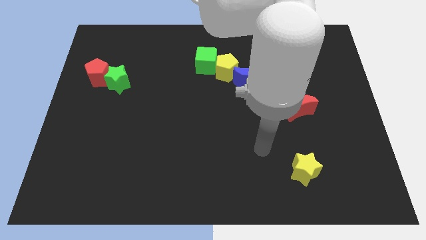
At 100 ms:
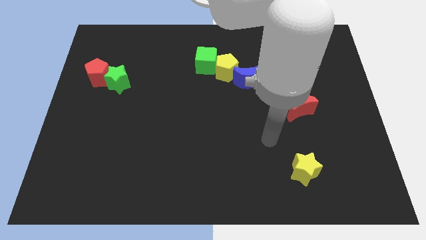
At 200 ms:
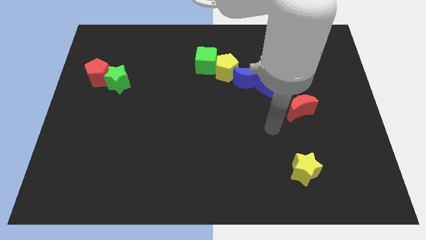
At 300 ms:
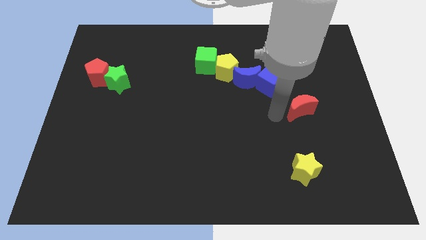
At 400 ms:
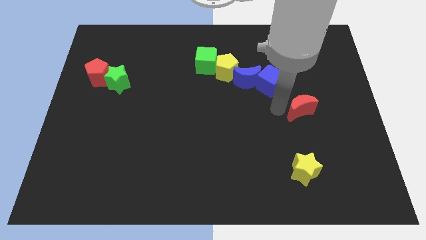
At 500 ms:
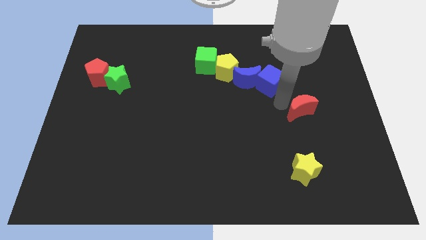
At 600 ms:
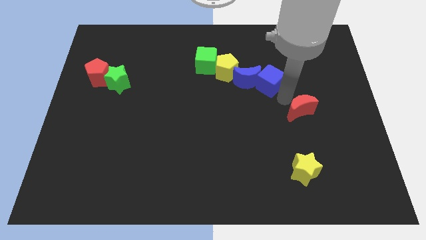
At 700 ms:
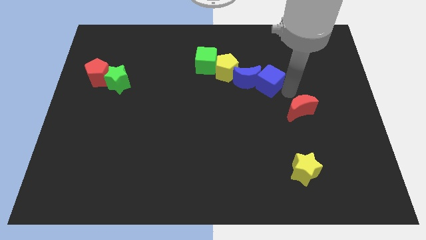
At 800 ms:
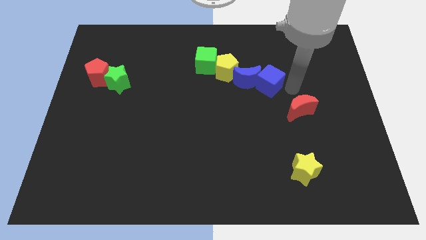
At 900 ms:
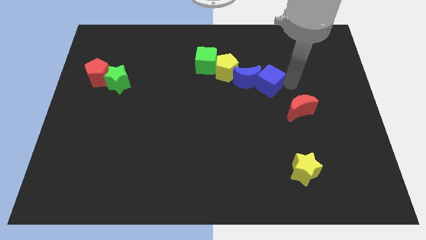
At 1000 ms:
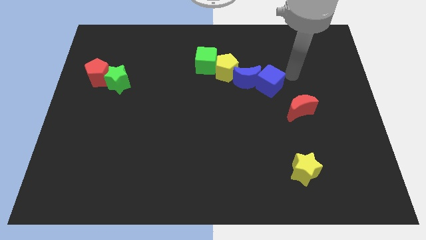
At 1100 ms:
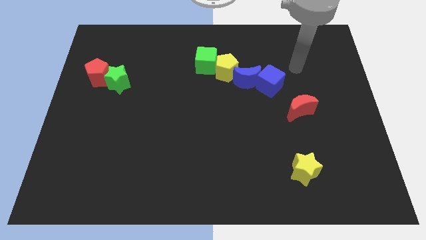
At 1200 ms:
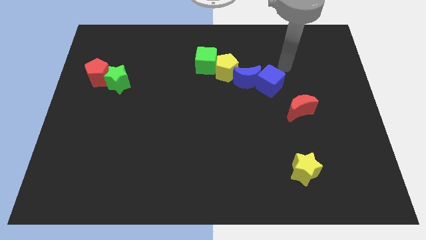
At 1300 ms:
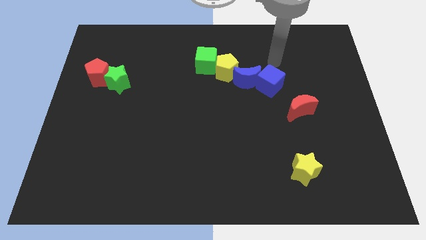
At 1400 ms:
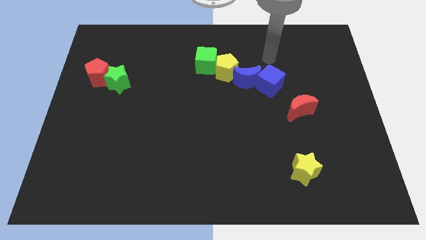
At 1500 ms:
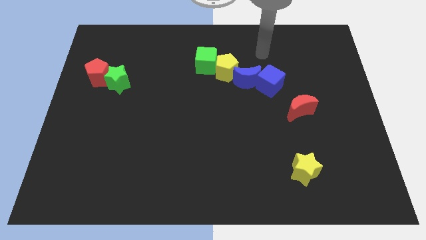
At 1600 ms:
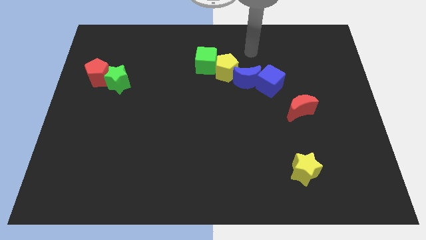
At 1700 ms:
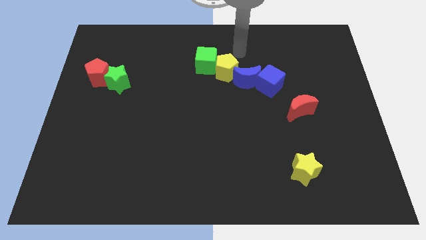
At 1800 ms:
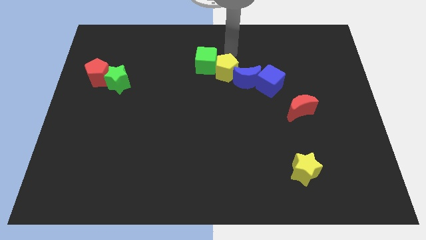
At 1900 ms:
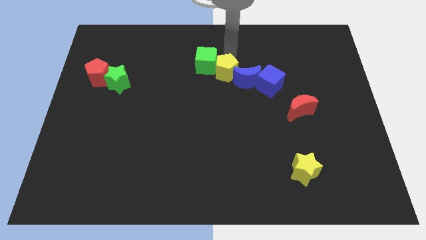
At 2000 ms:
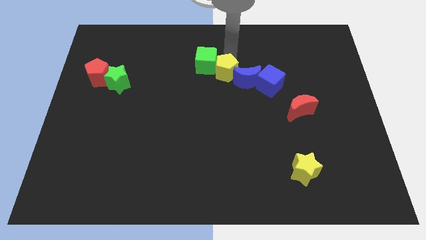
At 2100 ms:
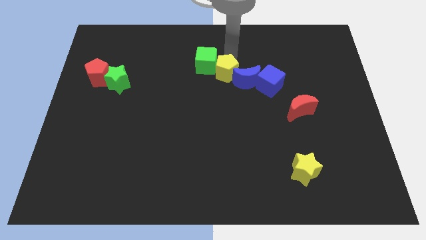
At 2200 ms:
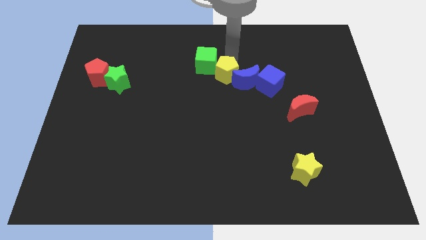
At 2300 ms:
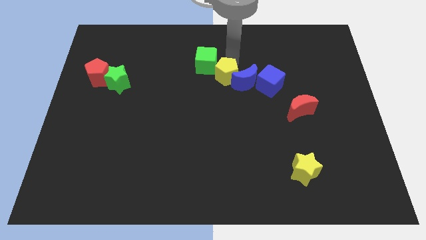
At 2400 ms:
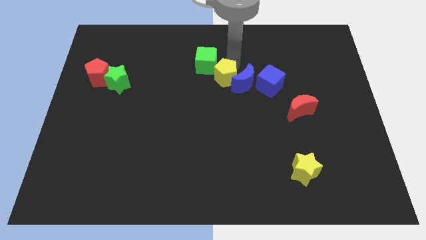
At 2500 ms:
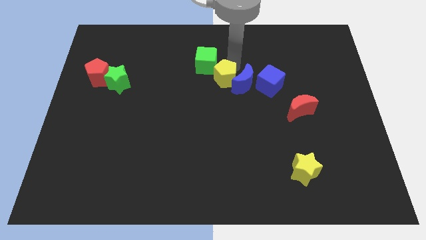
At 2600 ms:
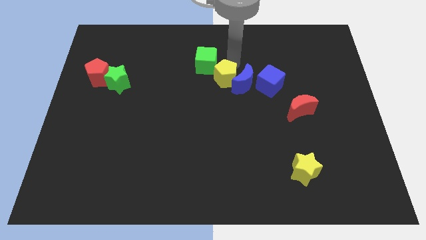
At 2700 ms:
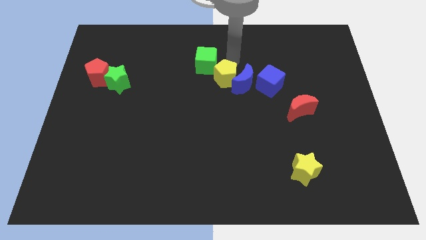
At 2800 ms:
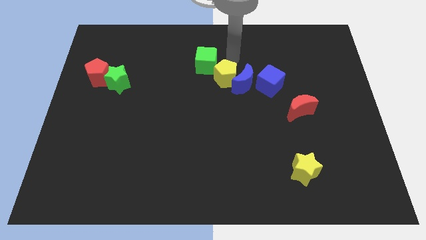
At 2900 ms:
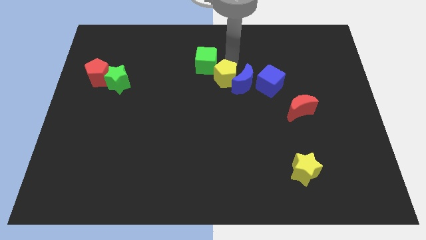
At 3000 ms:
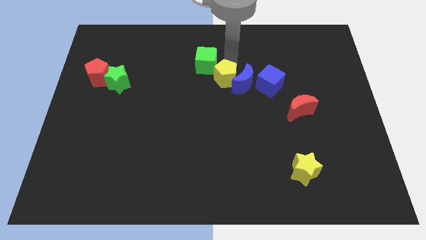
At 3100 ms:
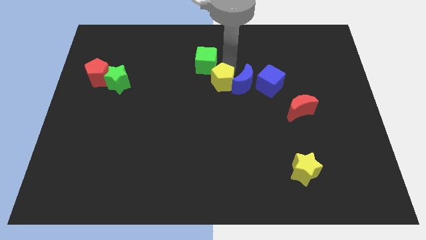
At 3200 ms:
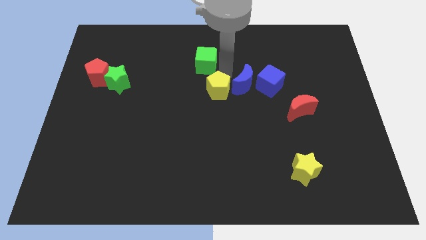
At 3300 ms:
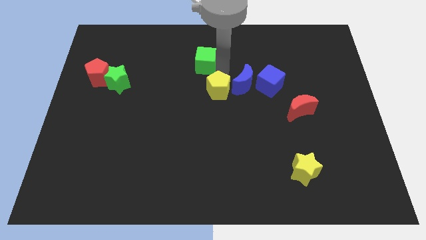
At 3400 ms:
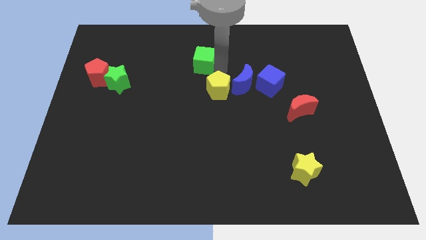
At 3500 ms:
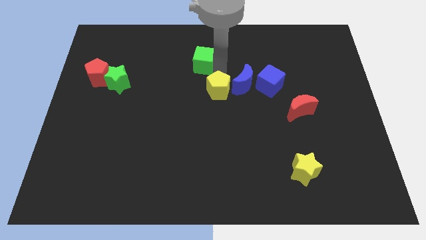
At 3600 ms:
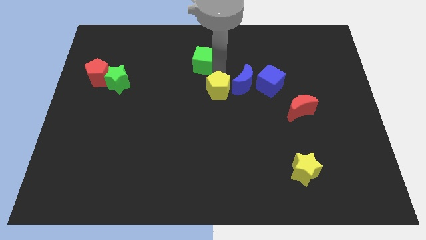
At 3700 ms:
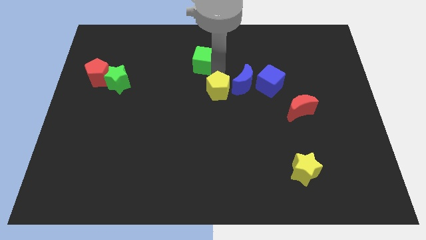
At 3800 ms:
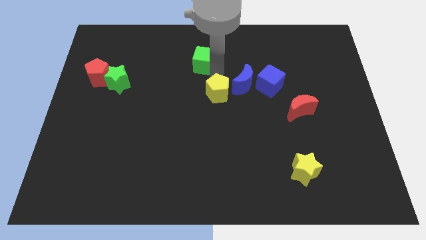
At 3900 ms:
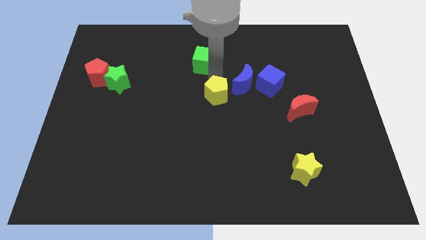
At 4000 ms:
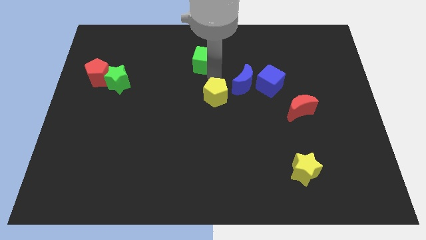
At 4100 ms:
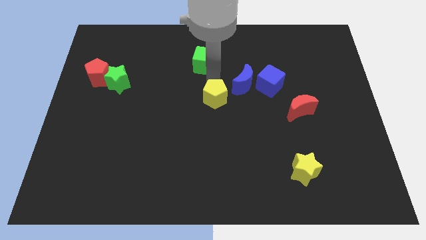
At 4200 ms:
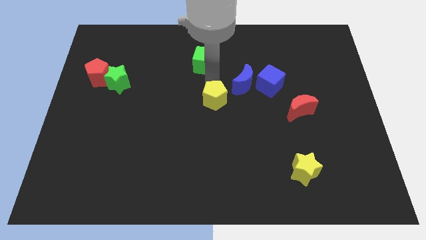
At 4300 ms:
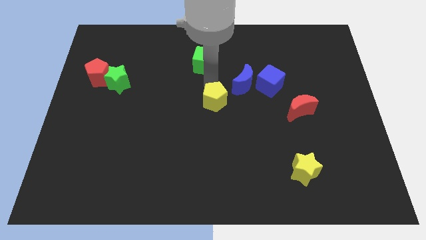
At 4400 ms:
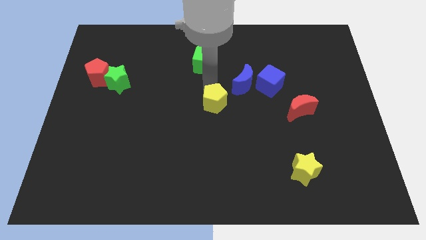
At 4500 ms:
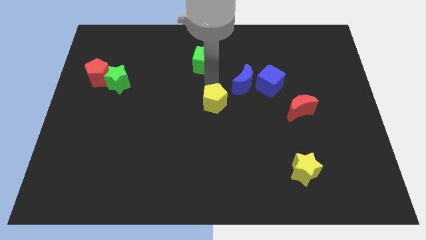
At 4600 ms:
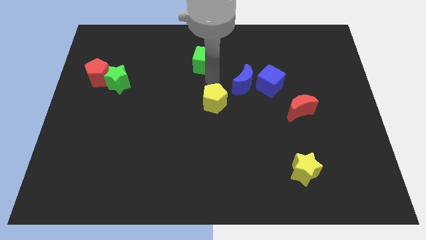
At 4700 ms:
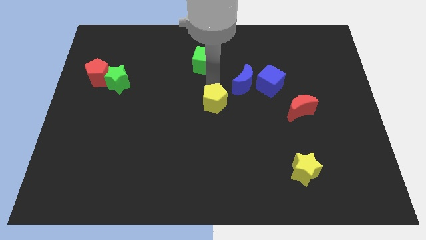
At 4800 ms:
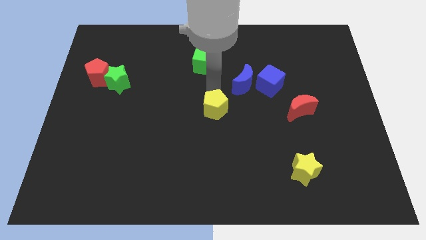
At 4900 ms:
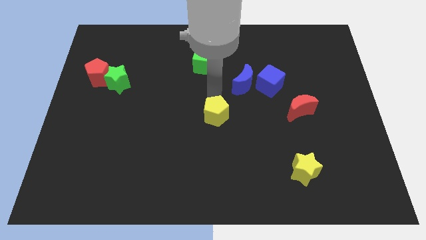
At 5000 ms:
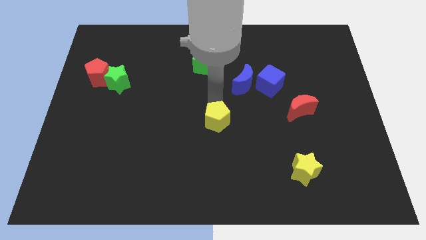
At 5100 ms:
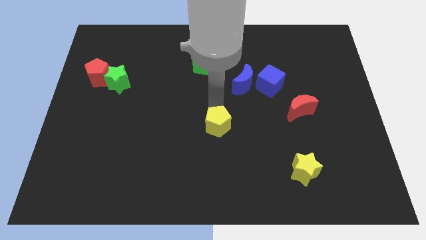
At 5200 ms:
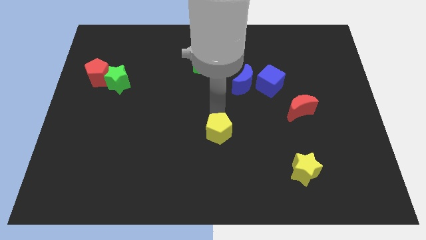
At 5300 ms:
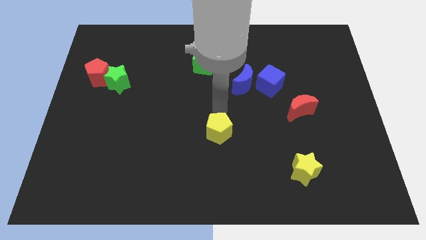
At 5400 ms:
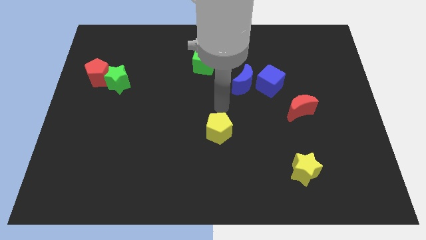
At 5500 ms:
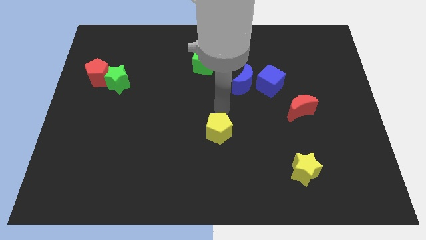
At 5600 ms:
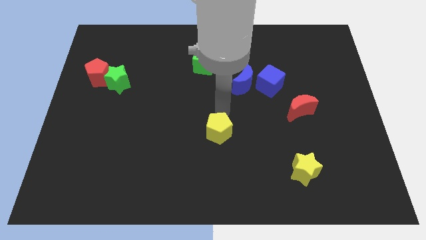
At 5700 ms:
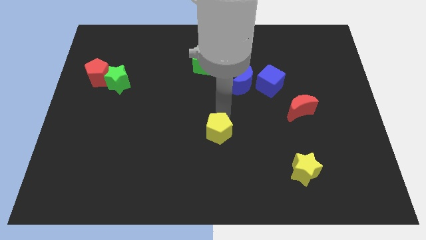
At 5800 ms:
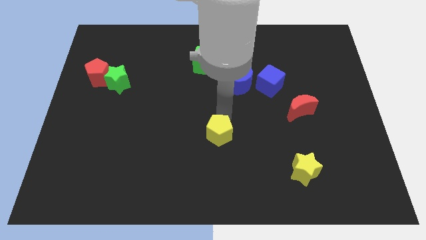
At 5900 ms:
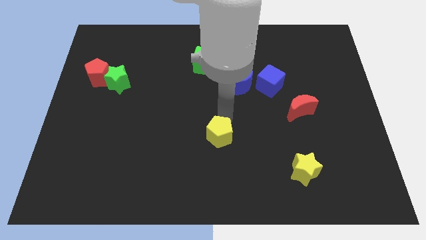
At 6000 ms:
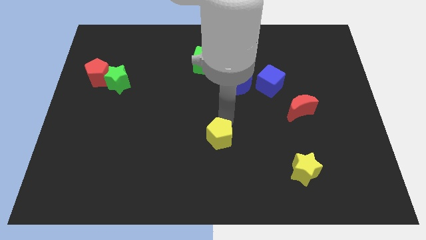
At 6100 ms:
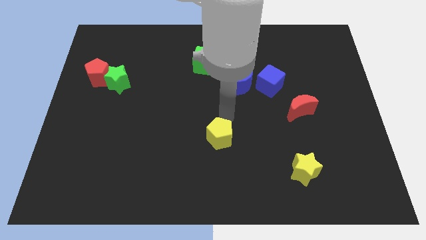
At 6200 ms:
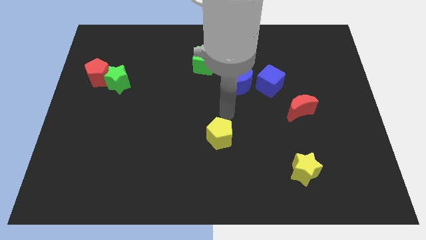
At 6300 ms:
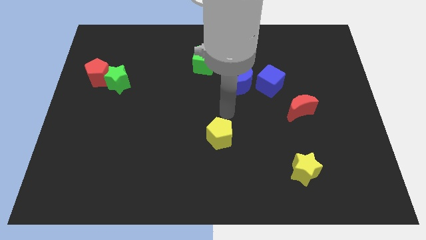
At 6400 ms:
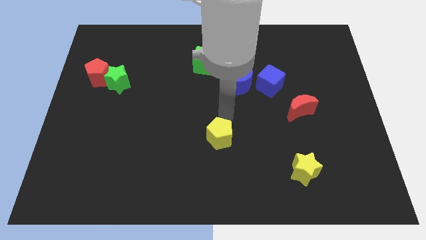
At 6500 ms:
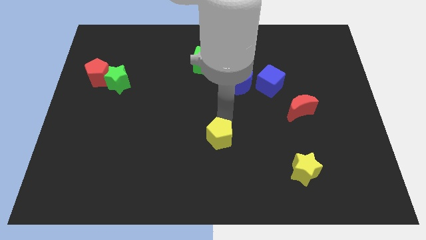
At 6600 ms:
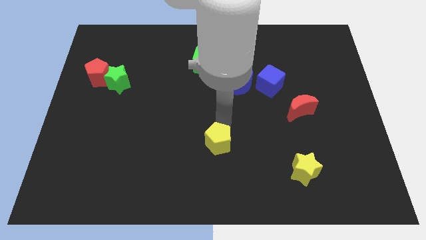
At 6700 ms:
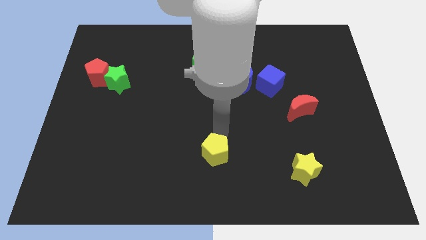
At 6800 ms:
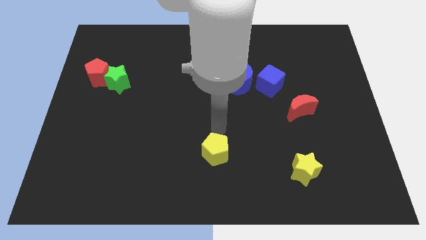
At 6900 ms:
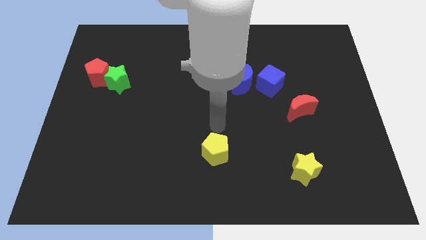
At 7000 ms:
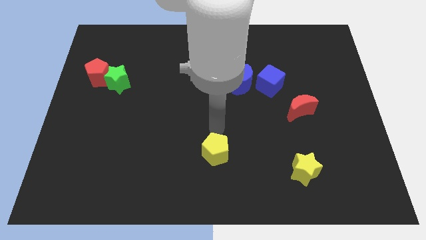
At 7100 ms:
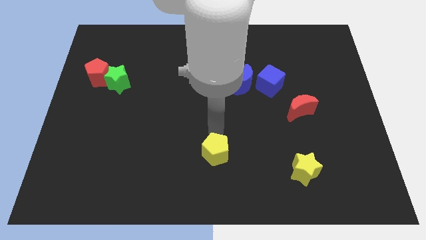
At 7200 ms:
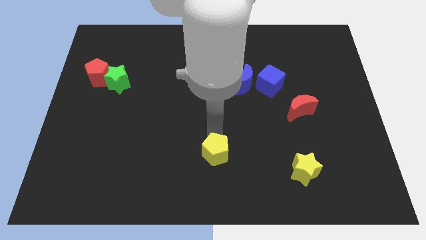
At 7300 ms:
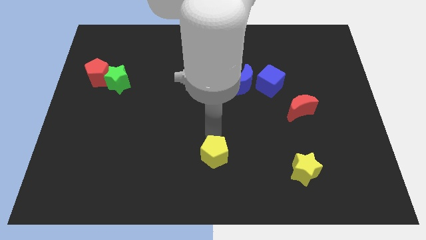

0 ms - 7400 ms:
put the yellow pentagon to the bottom
